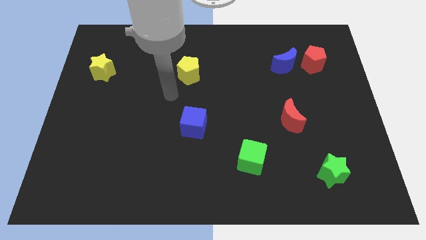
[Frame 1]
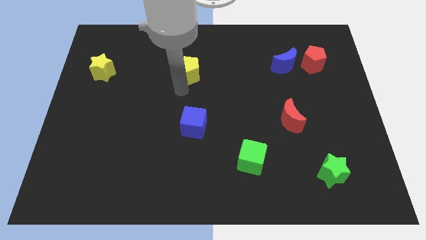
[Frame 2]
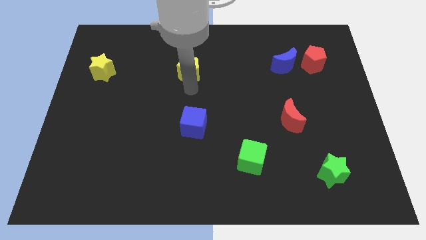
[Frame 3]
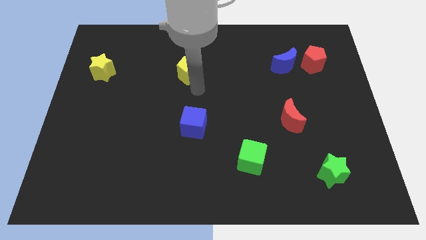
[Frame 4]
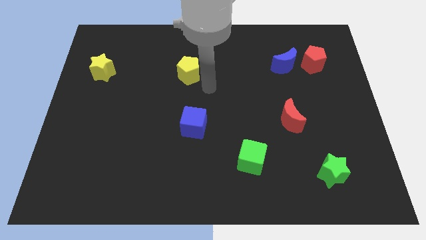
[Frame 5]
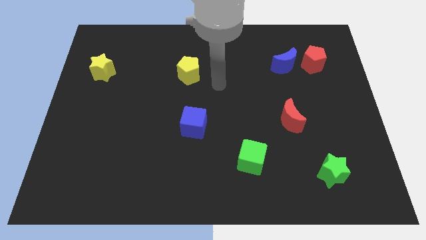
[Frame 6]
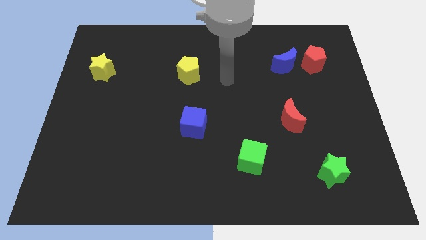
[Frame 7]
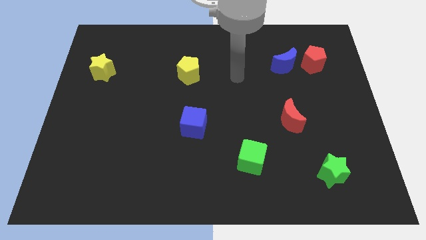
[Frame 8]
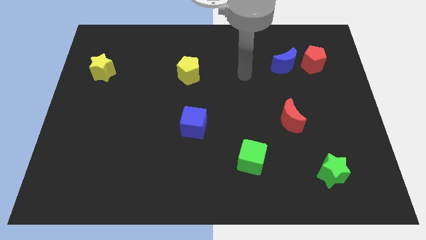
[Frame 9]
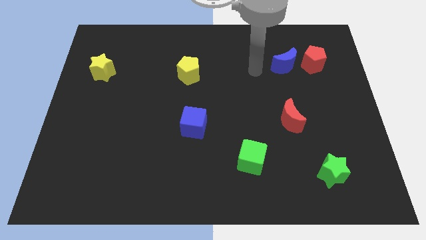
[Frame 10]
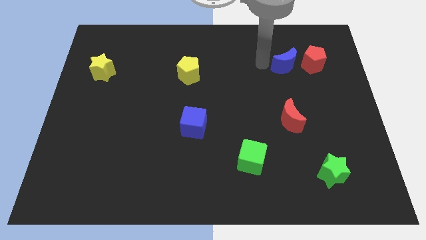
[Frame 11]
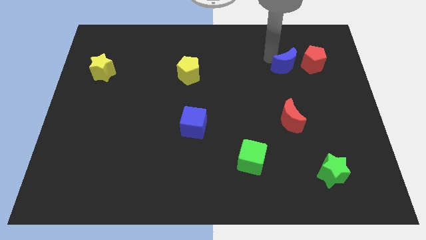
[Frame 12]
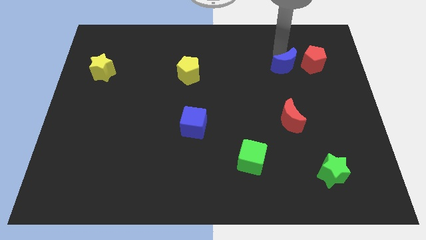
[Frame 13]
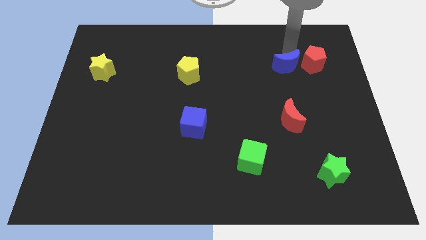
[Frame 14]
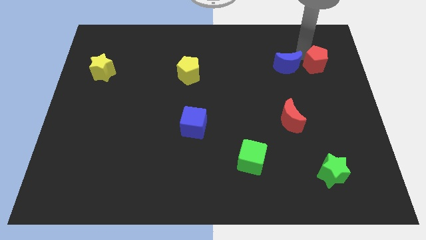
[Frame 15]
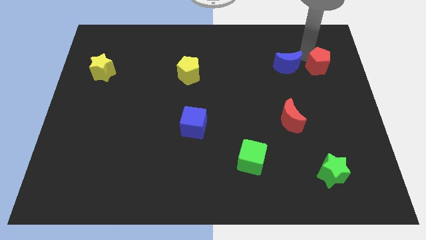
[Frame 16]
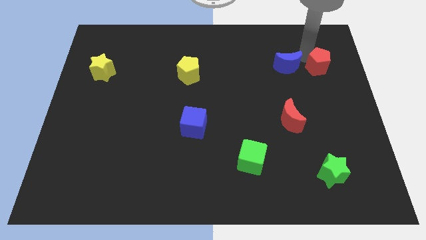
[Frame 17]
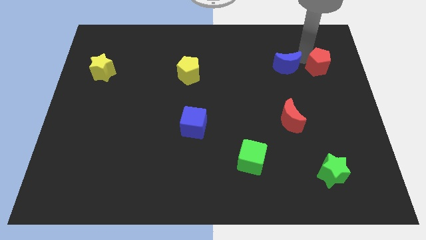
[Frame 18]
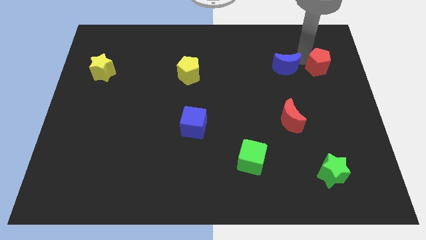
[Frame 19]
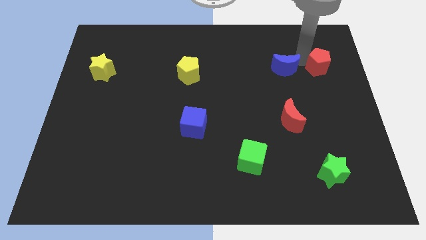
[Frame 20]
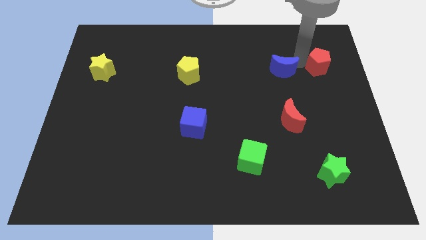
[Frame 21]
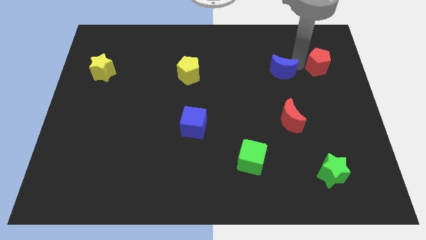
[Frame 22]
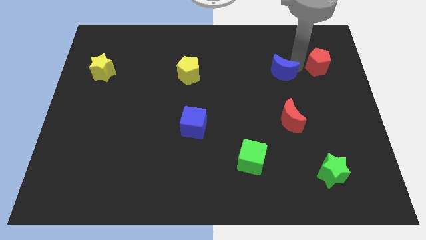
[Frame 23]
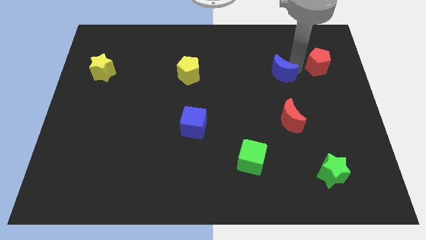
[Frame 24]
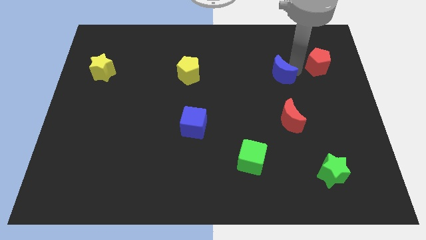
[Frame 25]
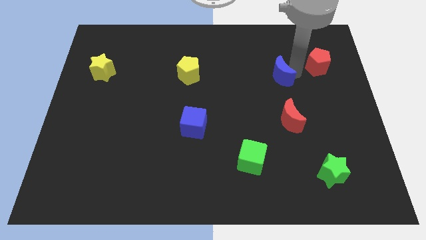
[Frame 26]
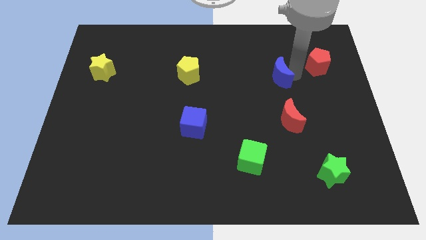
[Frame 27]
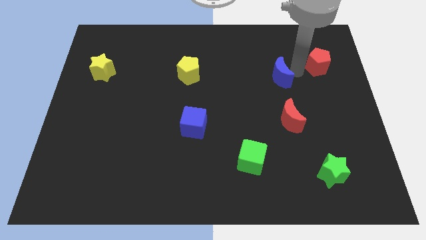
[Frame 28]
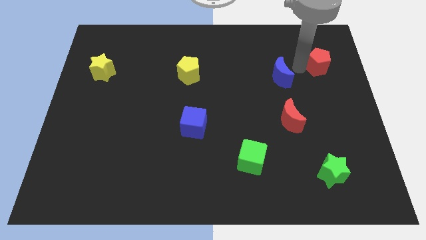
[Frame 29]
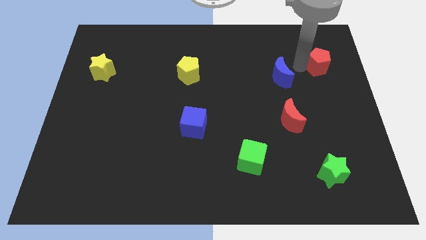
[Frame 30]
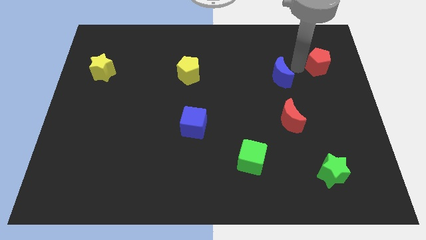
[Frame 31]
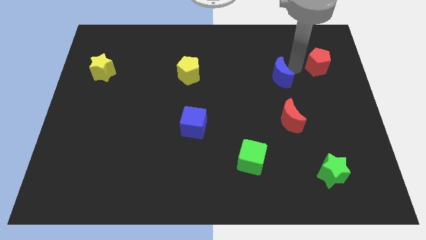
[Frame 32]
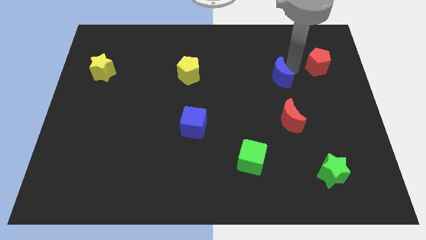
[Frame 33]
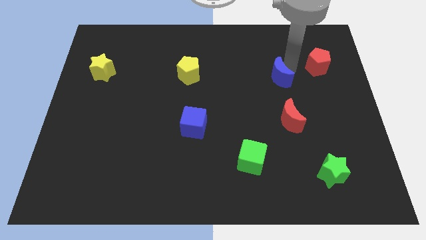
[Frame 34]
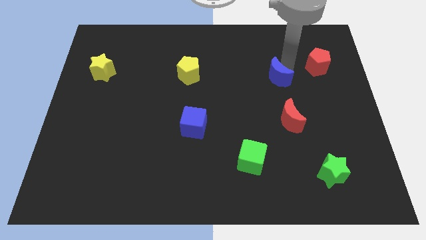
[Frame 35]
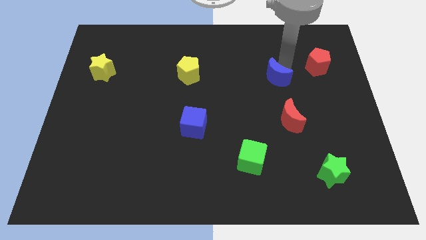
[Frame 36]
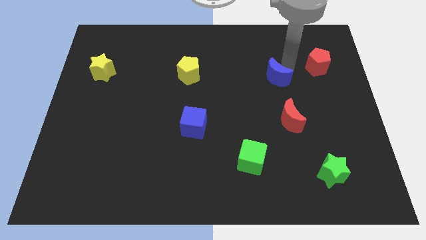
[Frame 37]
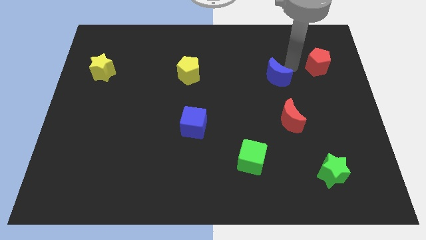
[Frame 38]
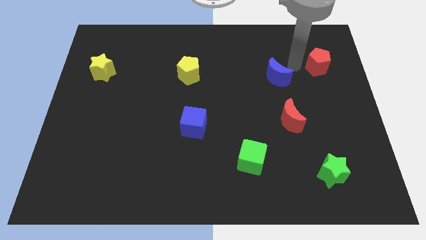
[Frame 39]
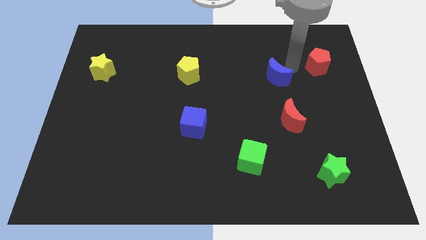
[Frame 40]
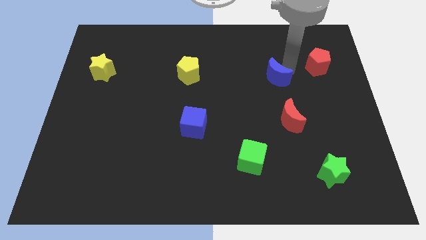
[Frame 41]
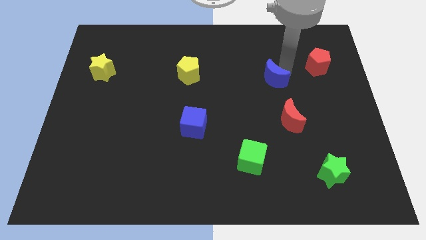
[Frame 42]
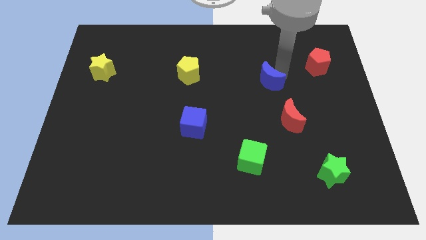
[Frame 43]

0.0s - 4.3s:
push the blue moon a little bit downwards and then left

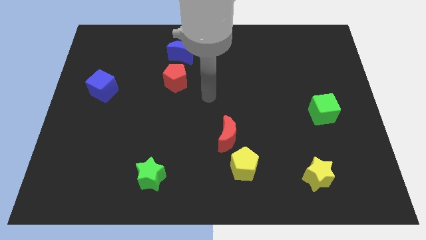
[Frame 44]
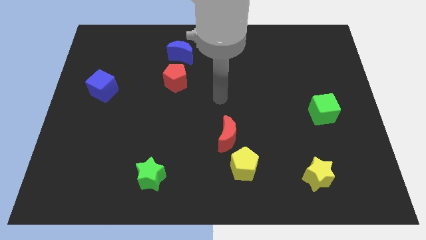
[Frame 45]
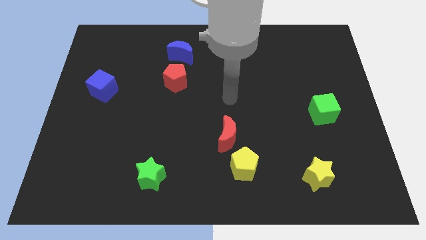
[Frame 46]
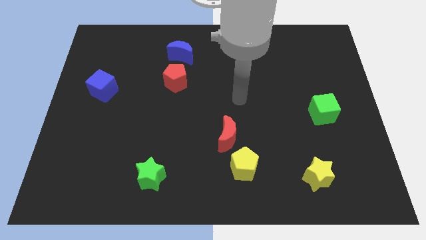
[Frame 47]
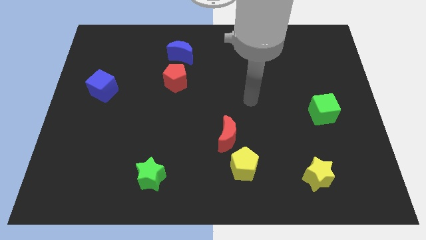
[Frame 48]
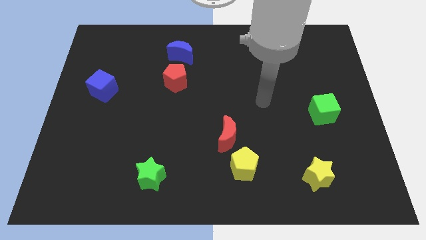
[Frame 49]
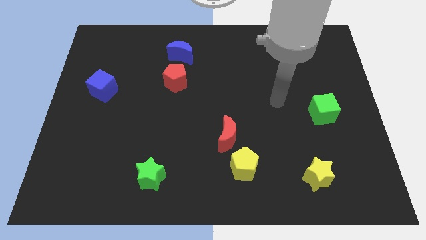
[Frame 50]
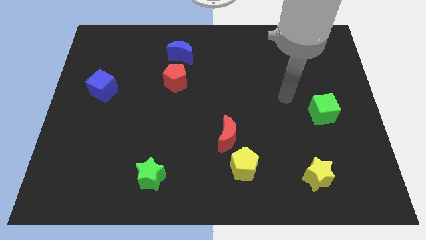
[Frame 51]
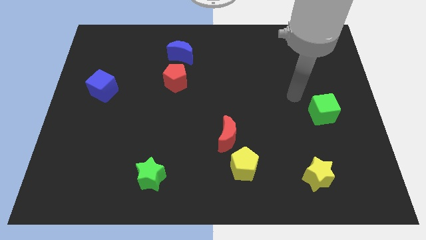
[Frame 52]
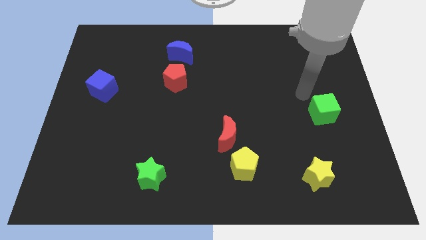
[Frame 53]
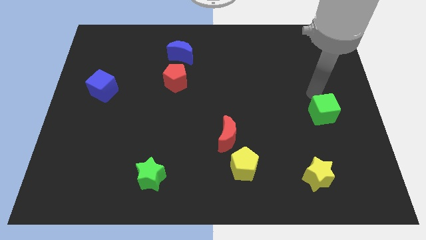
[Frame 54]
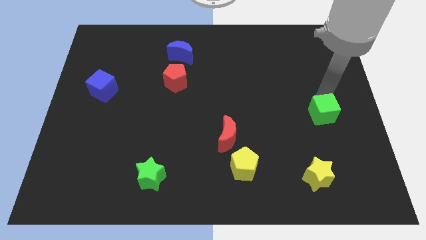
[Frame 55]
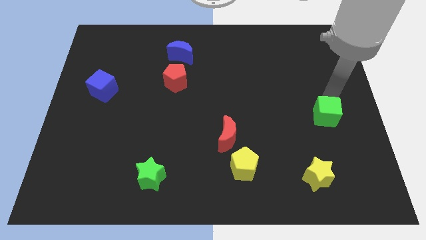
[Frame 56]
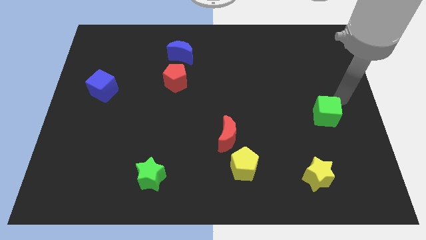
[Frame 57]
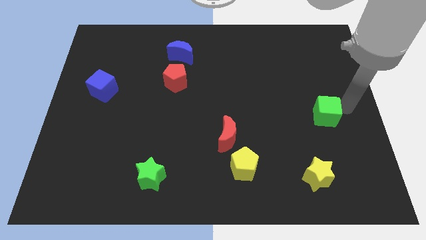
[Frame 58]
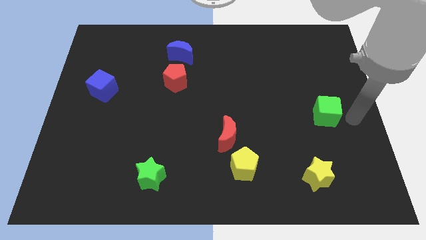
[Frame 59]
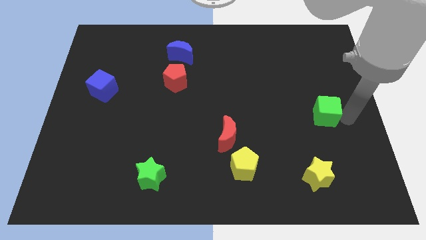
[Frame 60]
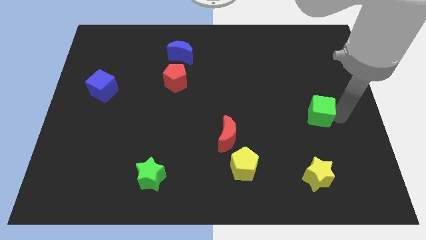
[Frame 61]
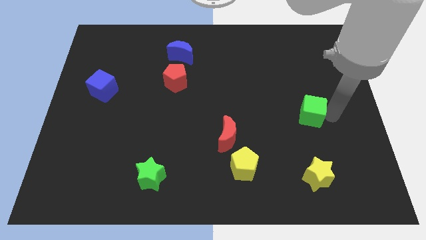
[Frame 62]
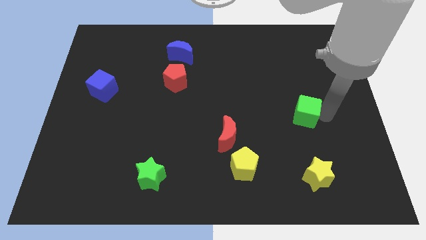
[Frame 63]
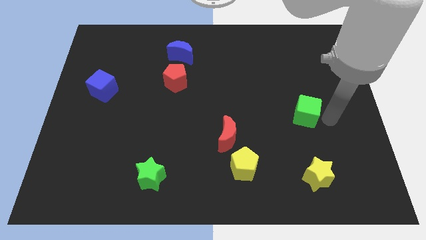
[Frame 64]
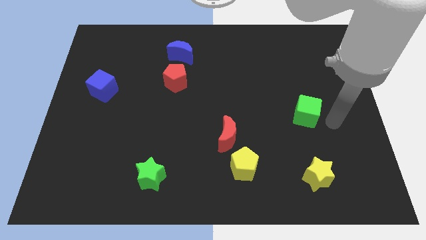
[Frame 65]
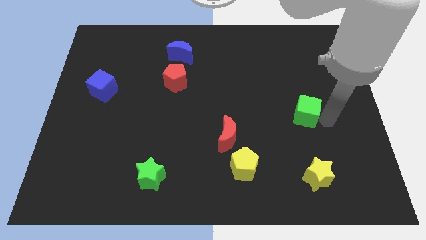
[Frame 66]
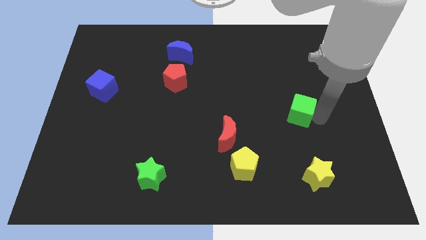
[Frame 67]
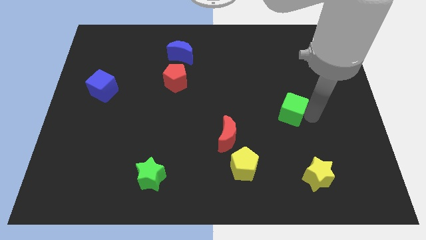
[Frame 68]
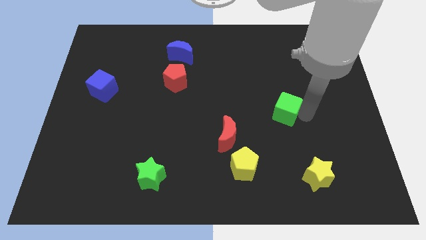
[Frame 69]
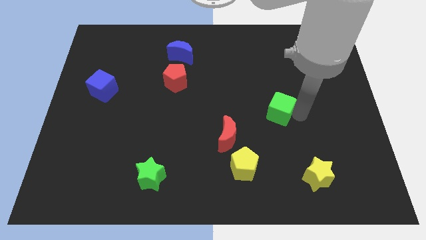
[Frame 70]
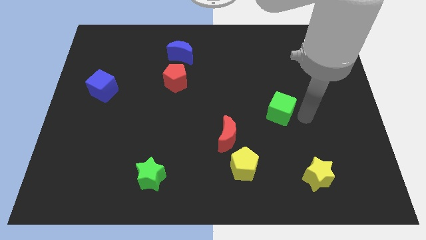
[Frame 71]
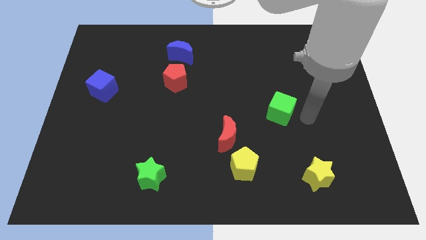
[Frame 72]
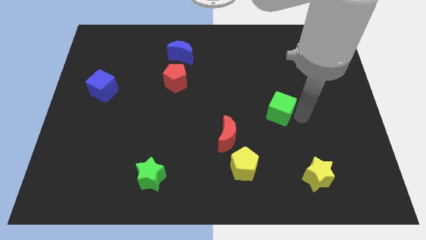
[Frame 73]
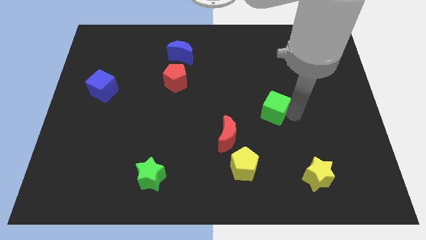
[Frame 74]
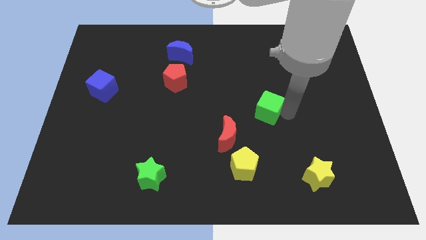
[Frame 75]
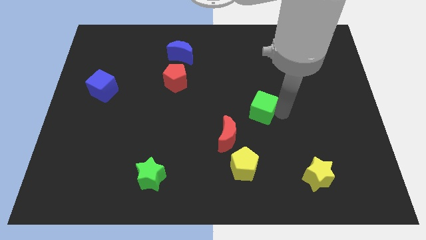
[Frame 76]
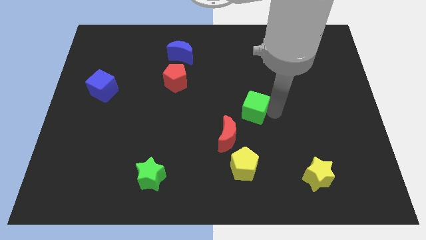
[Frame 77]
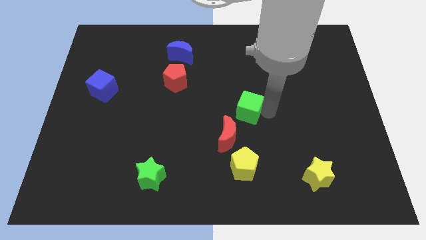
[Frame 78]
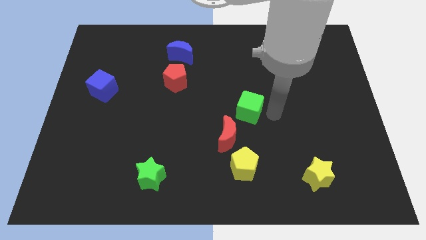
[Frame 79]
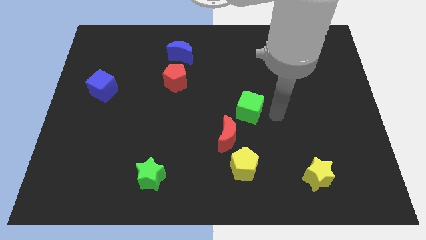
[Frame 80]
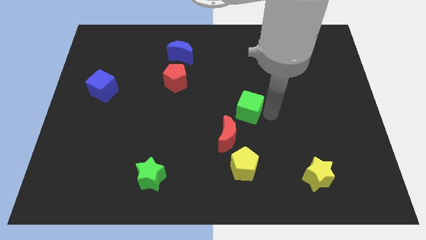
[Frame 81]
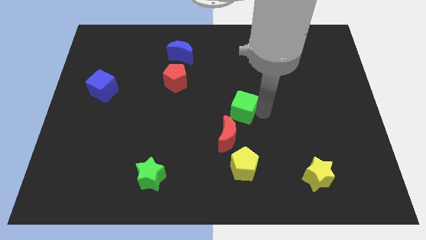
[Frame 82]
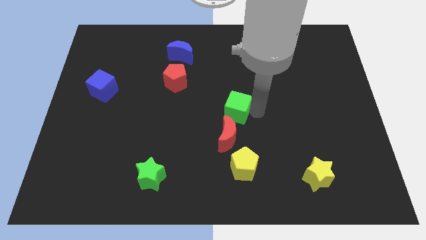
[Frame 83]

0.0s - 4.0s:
slide the green cube to the left
